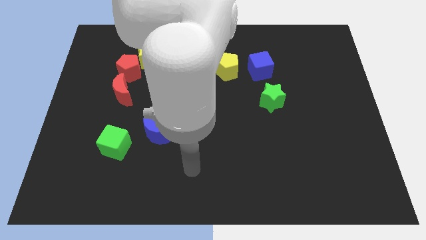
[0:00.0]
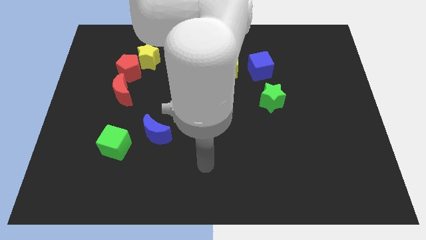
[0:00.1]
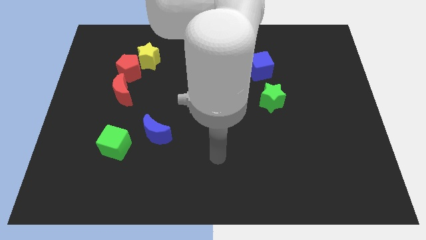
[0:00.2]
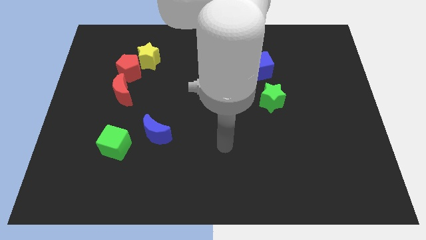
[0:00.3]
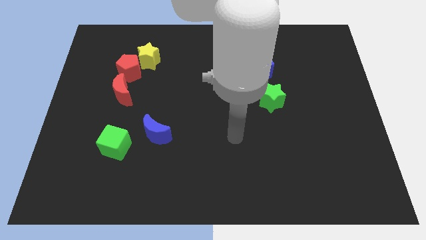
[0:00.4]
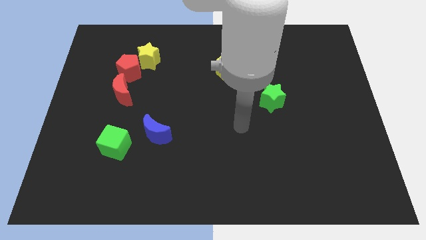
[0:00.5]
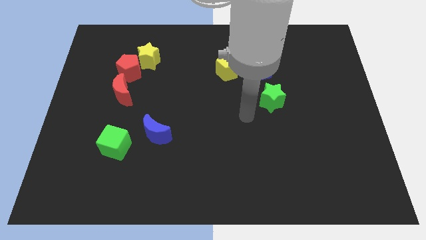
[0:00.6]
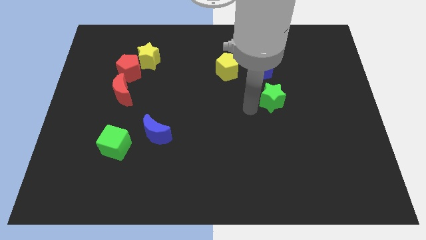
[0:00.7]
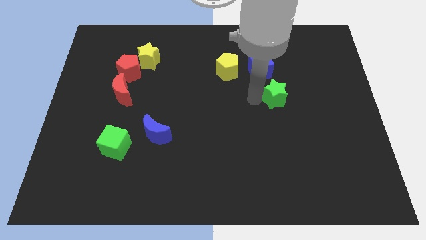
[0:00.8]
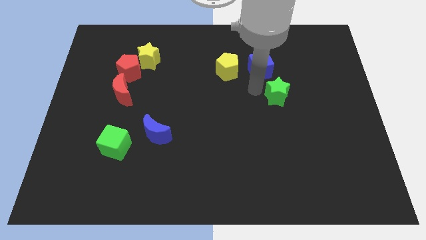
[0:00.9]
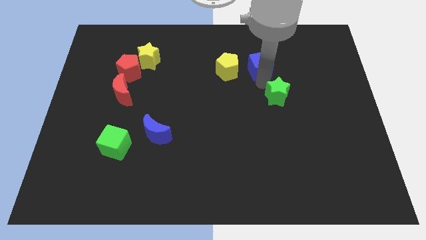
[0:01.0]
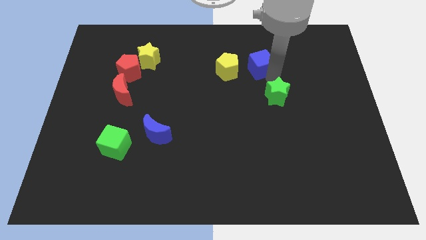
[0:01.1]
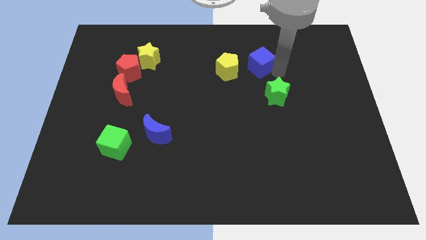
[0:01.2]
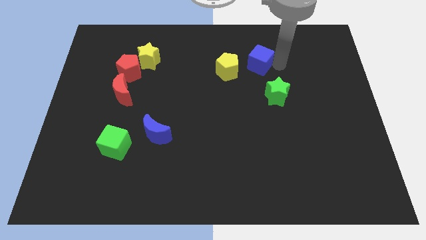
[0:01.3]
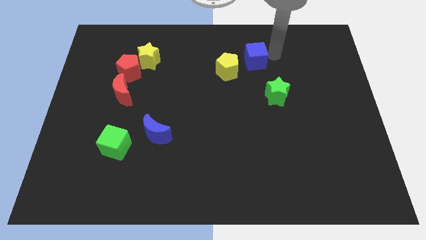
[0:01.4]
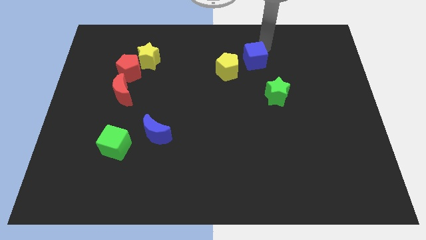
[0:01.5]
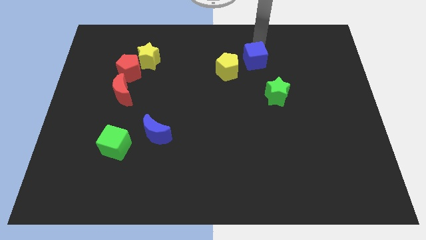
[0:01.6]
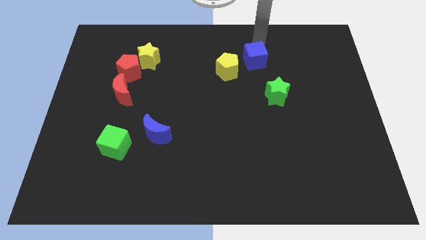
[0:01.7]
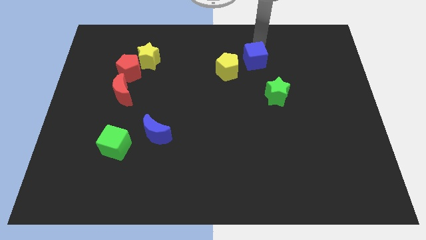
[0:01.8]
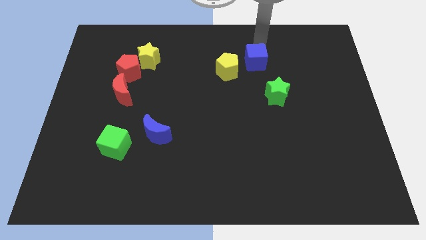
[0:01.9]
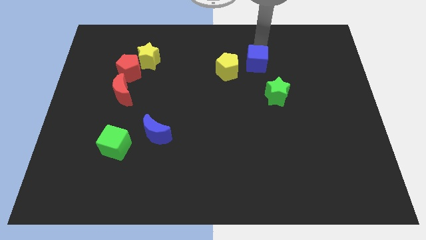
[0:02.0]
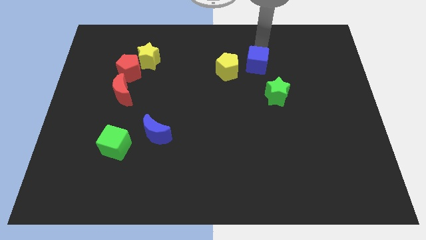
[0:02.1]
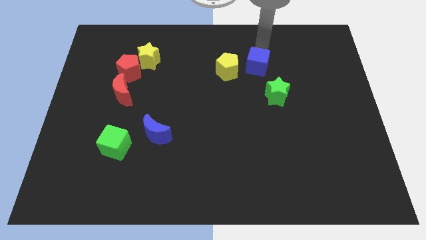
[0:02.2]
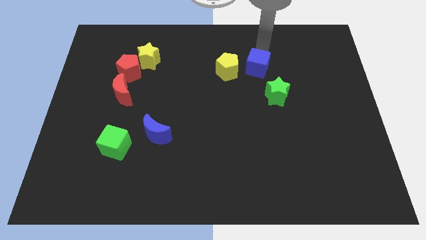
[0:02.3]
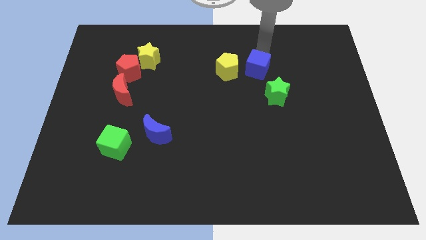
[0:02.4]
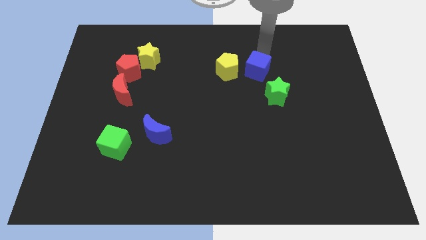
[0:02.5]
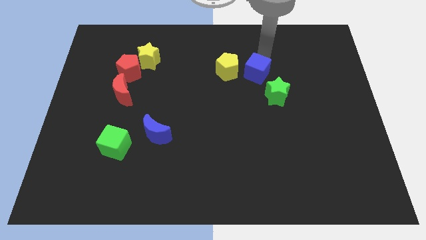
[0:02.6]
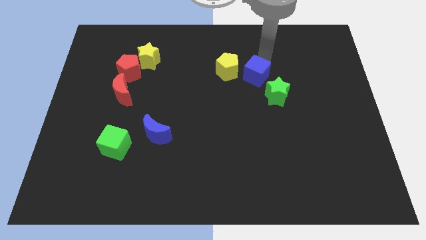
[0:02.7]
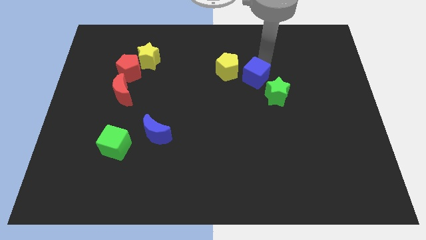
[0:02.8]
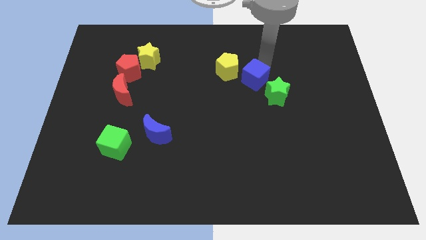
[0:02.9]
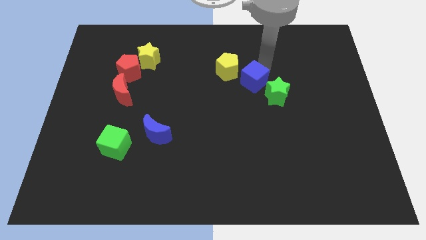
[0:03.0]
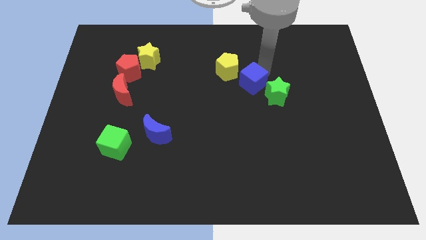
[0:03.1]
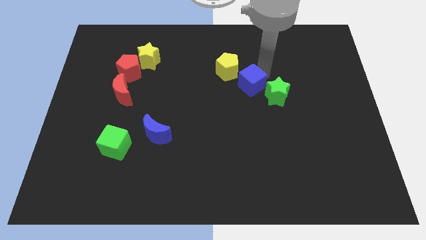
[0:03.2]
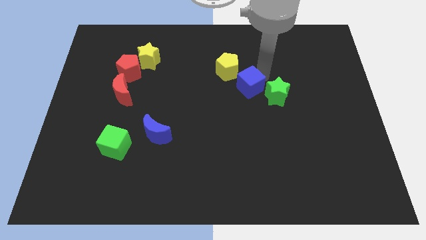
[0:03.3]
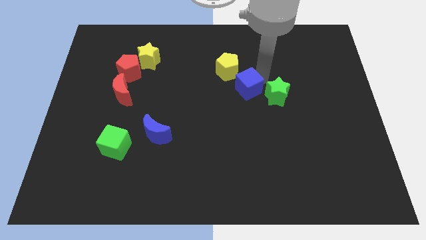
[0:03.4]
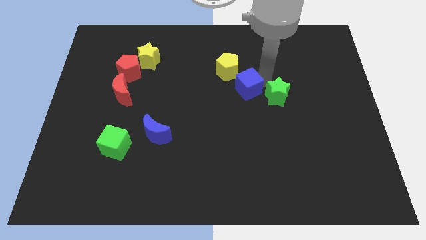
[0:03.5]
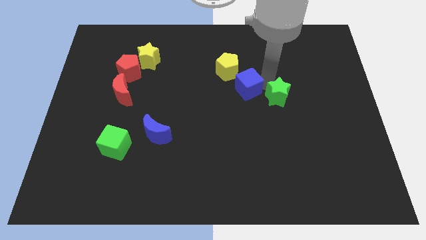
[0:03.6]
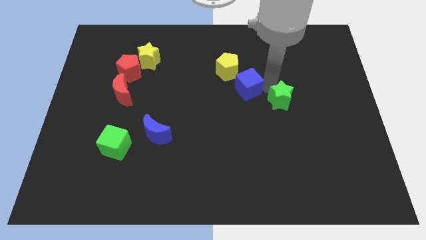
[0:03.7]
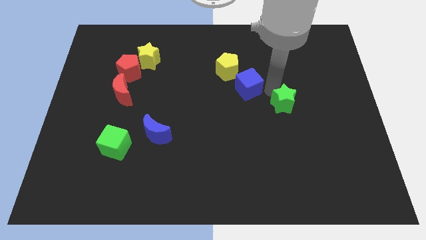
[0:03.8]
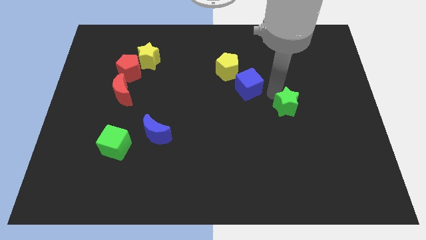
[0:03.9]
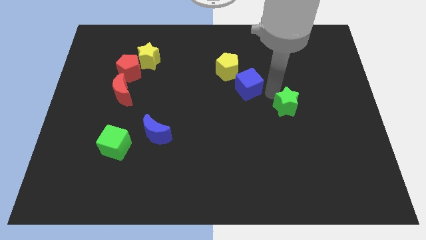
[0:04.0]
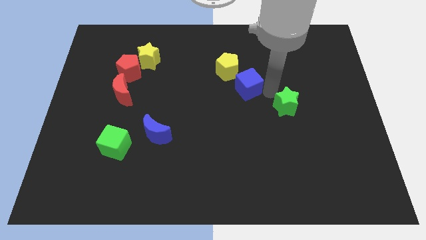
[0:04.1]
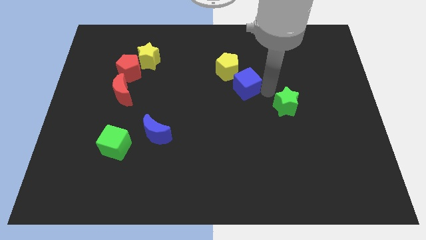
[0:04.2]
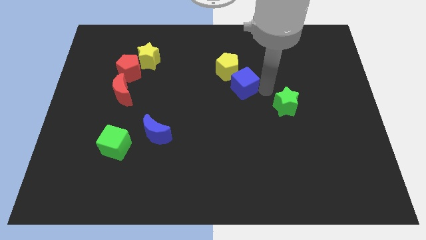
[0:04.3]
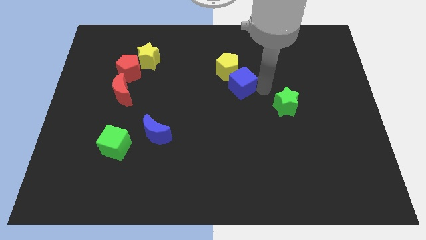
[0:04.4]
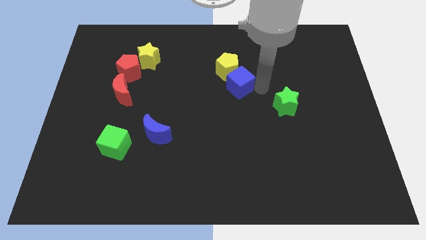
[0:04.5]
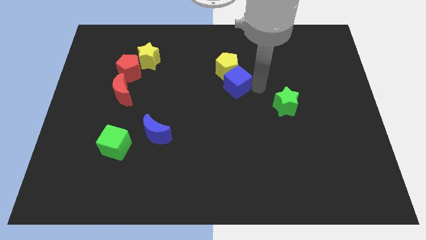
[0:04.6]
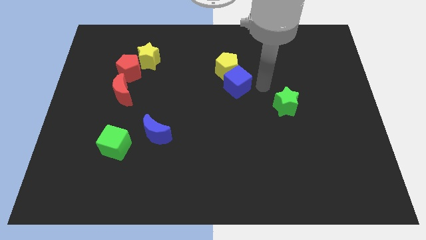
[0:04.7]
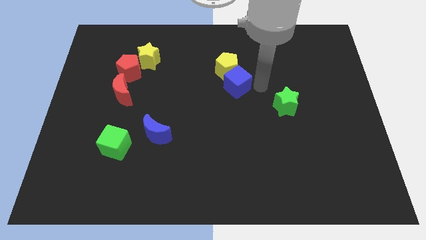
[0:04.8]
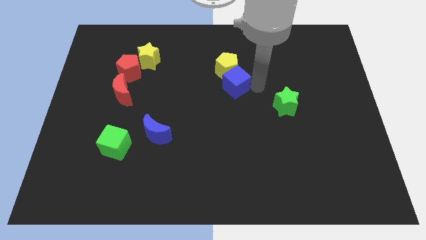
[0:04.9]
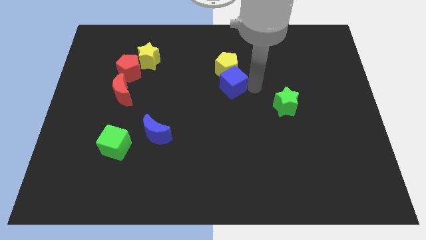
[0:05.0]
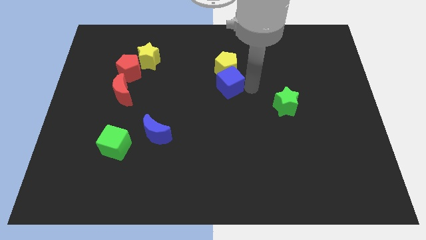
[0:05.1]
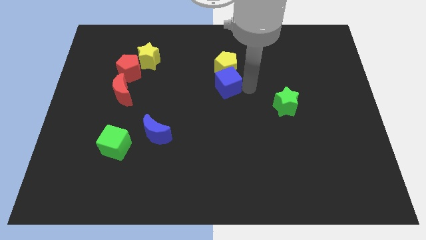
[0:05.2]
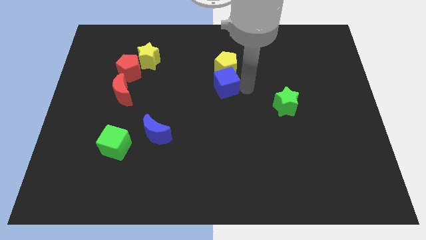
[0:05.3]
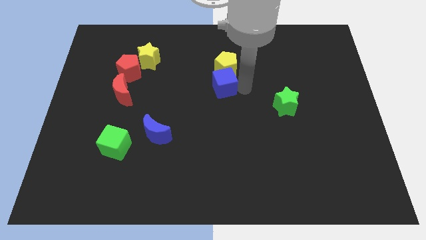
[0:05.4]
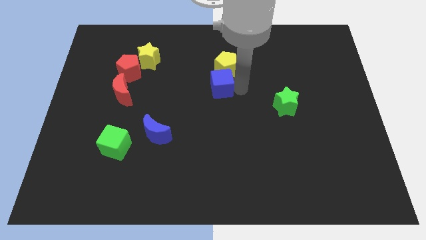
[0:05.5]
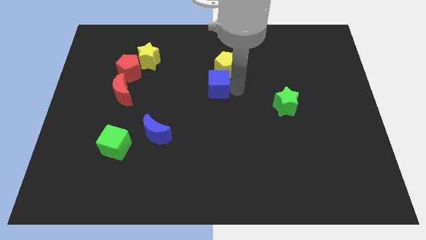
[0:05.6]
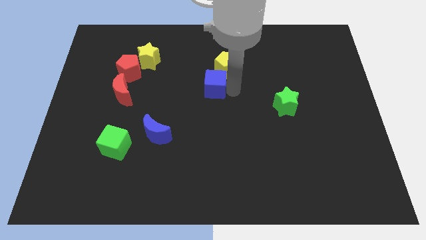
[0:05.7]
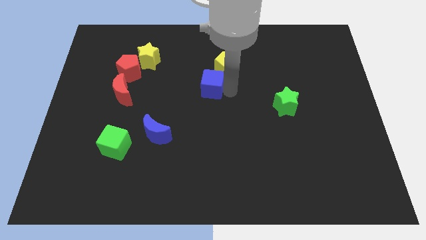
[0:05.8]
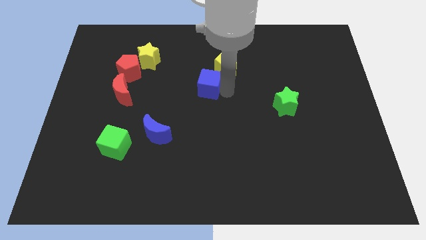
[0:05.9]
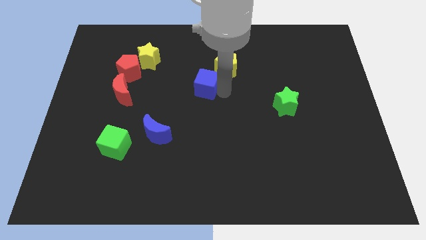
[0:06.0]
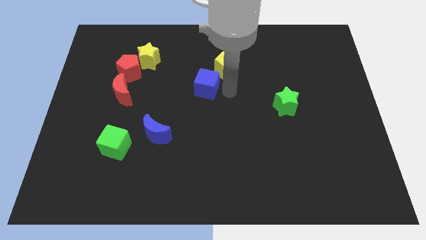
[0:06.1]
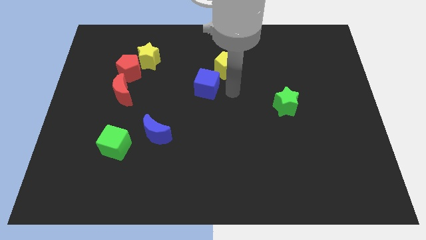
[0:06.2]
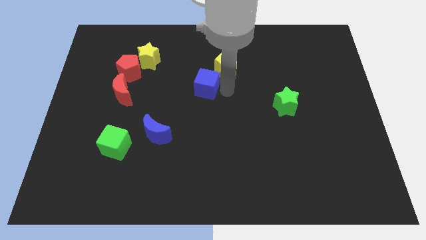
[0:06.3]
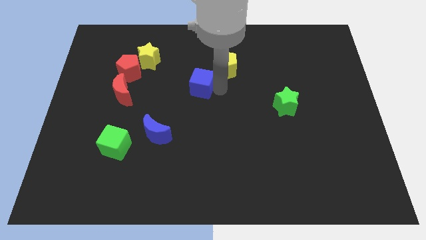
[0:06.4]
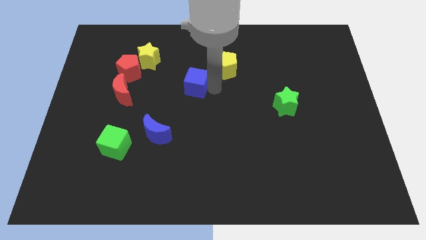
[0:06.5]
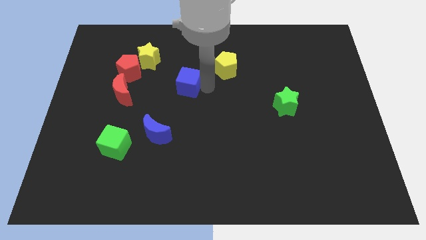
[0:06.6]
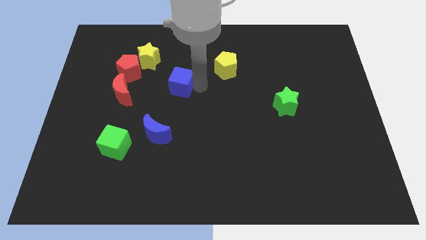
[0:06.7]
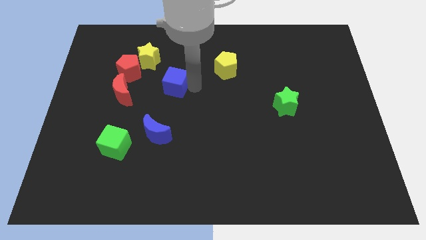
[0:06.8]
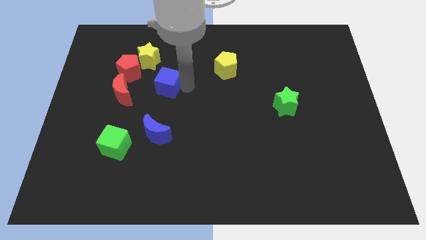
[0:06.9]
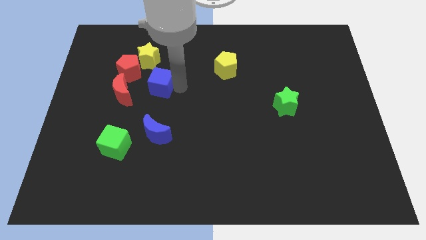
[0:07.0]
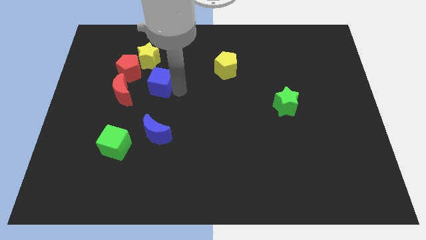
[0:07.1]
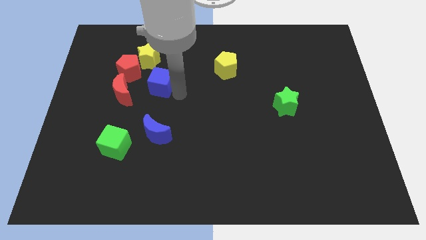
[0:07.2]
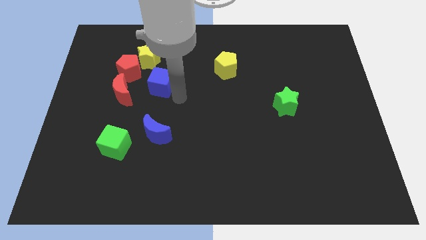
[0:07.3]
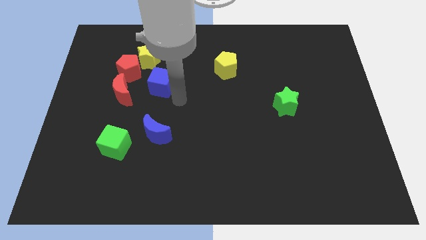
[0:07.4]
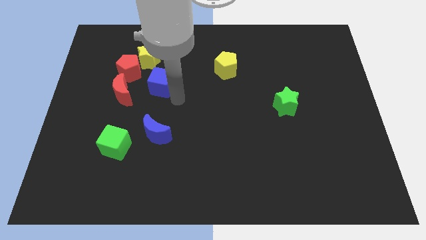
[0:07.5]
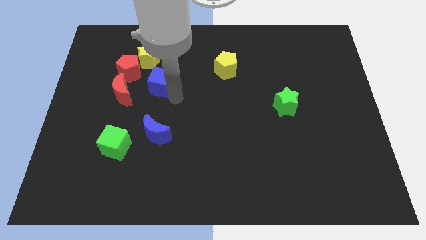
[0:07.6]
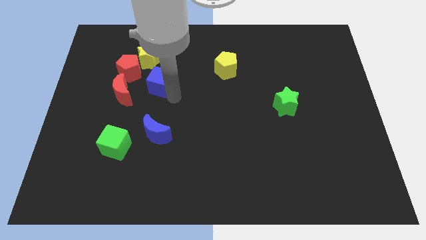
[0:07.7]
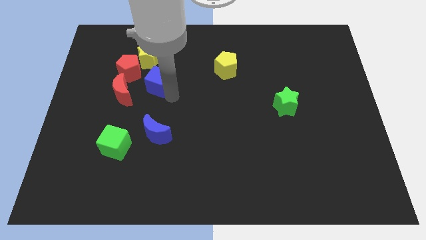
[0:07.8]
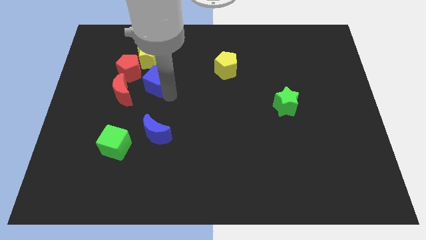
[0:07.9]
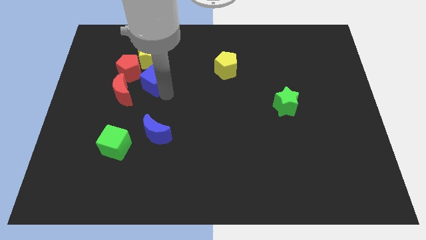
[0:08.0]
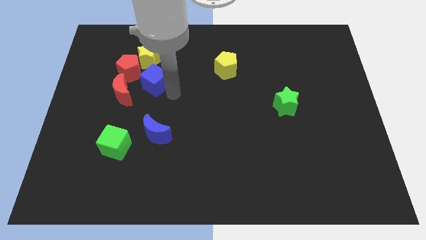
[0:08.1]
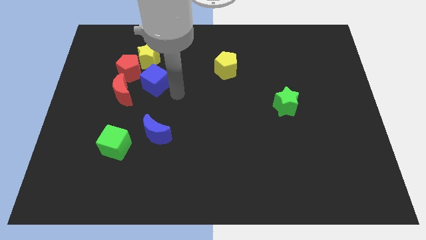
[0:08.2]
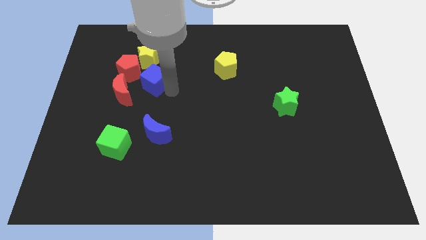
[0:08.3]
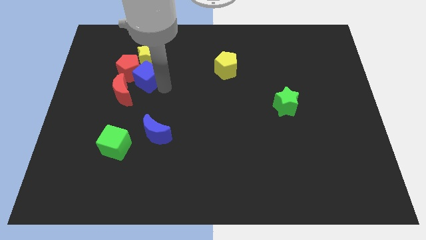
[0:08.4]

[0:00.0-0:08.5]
put the blue cube to the red pentagon
